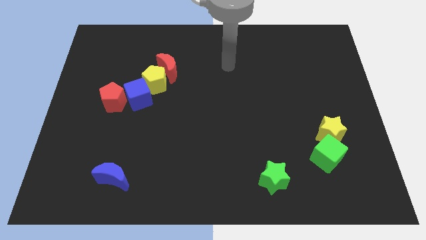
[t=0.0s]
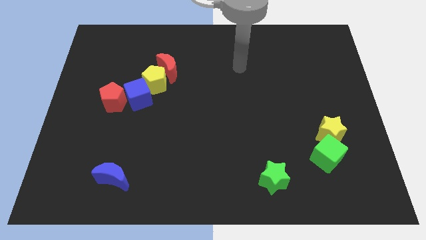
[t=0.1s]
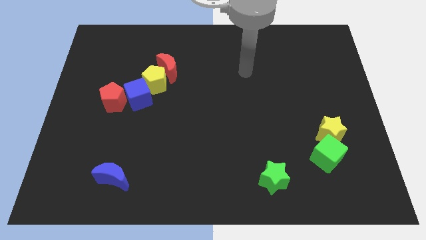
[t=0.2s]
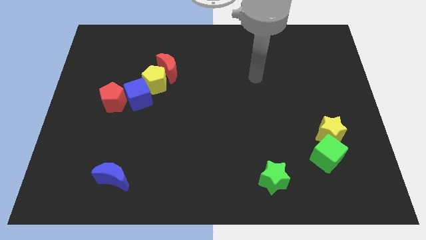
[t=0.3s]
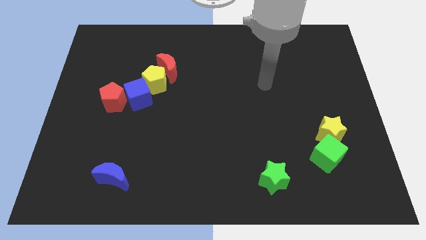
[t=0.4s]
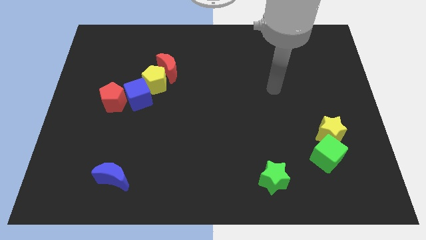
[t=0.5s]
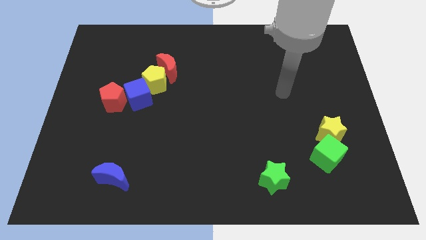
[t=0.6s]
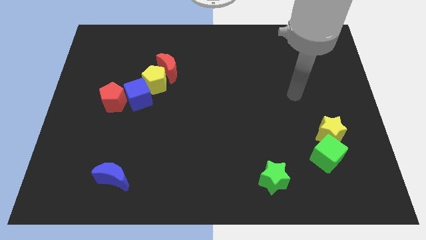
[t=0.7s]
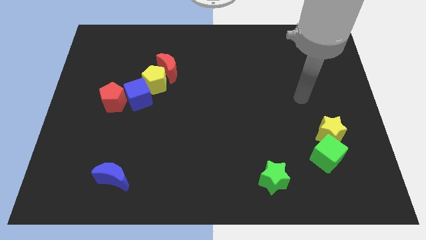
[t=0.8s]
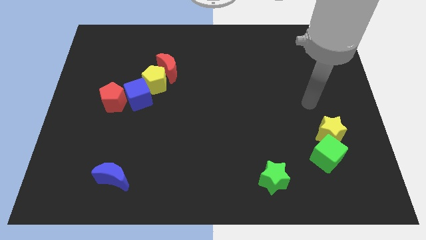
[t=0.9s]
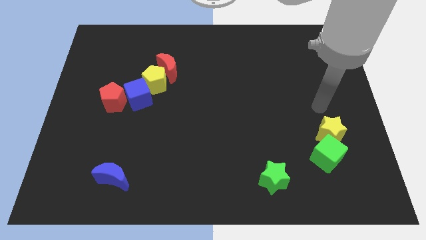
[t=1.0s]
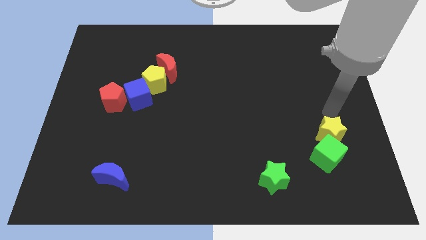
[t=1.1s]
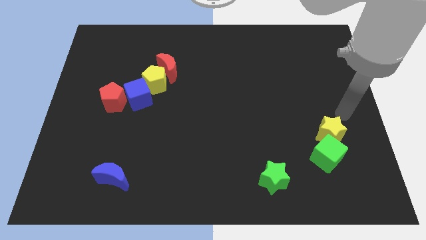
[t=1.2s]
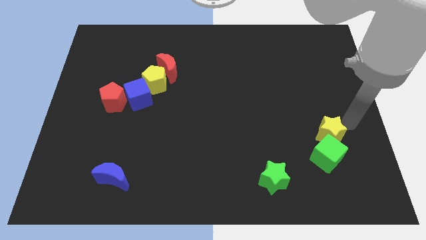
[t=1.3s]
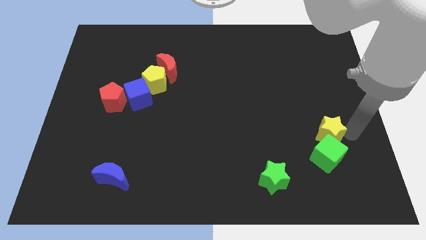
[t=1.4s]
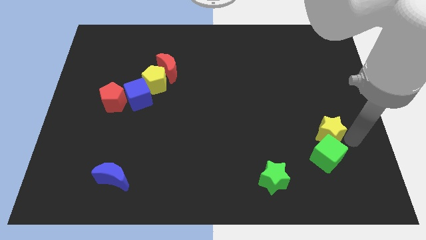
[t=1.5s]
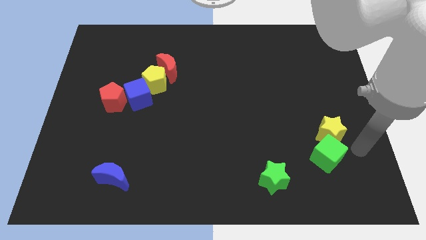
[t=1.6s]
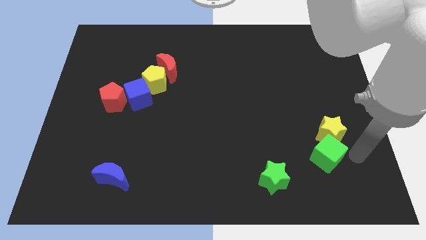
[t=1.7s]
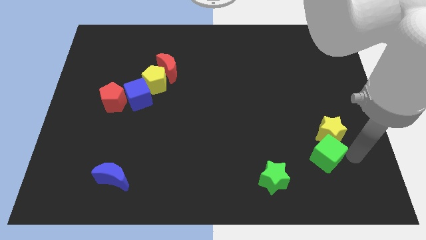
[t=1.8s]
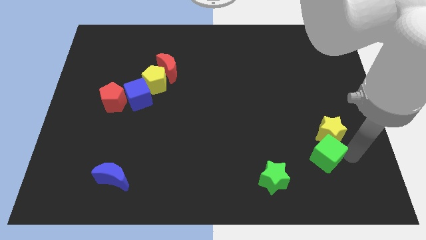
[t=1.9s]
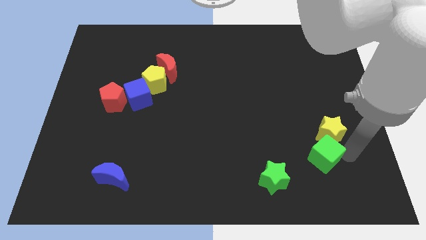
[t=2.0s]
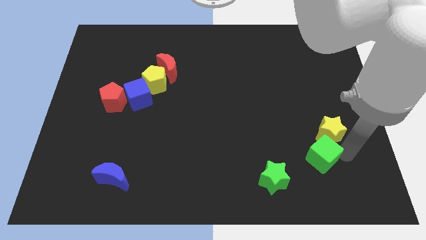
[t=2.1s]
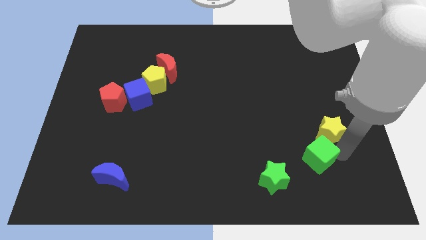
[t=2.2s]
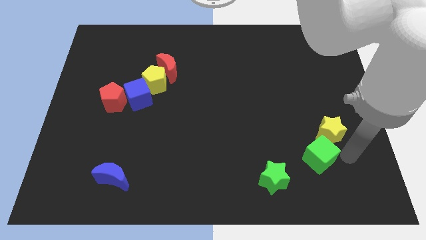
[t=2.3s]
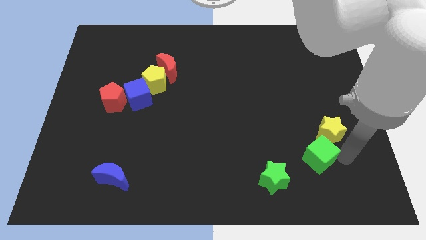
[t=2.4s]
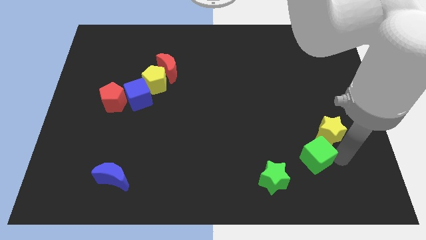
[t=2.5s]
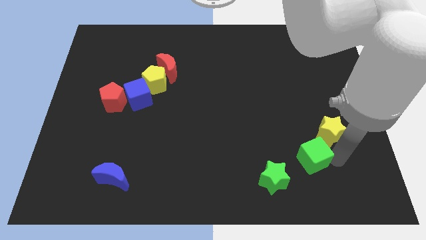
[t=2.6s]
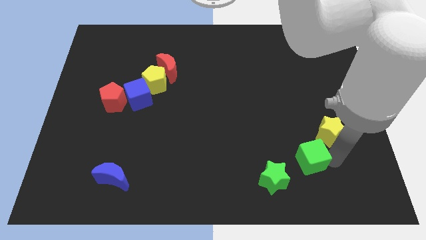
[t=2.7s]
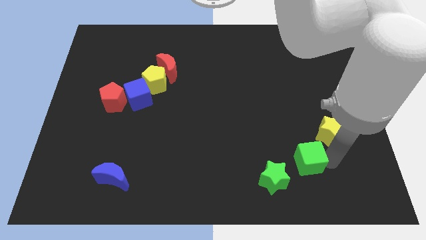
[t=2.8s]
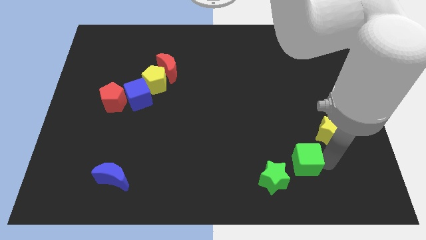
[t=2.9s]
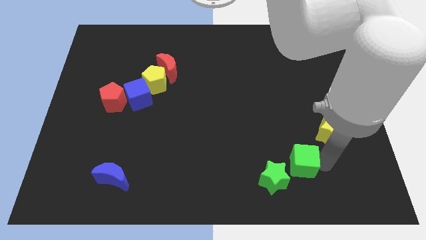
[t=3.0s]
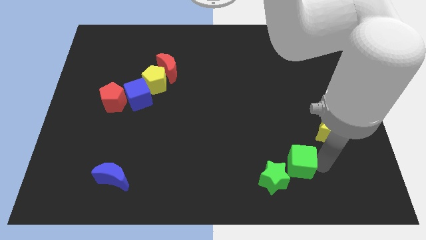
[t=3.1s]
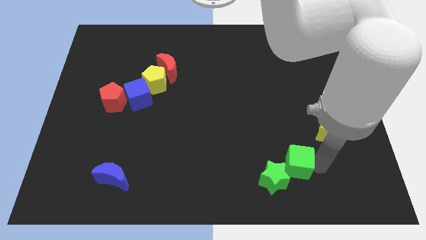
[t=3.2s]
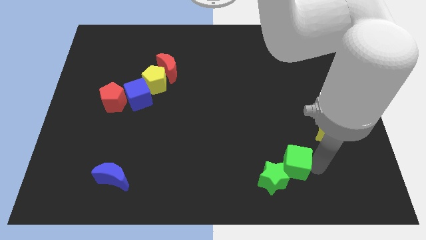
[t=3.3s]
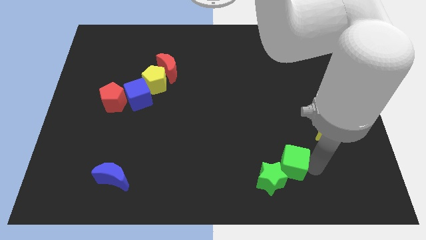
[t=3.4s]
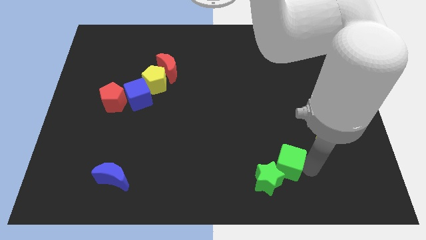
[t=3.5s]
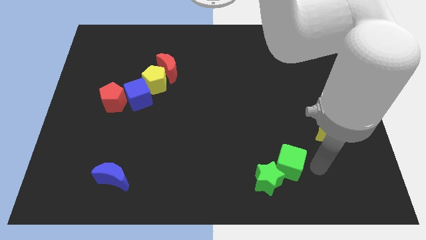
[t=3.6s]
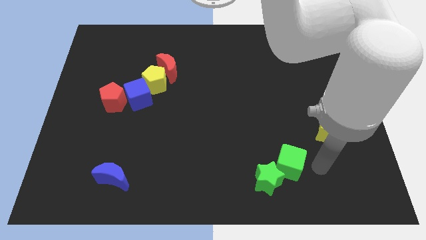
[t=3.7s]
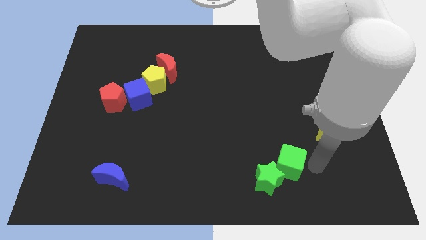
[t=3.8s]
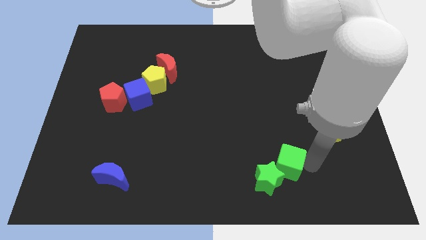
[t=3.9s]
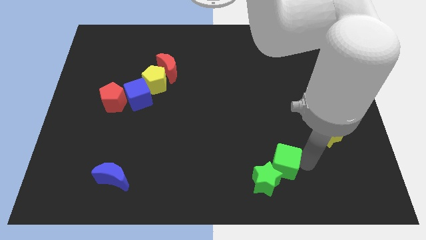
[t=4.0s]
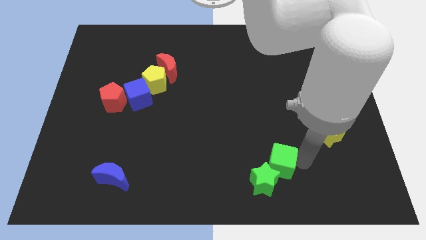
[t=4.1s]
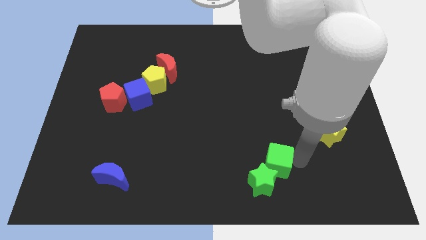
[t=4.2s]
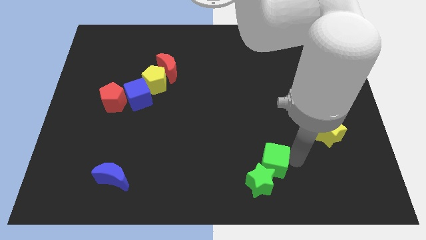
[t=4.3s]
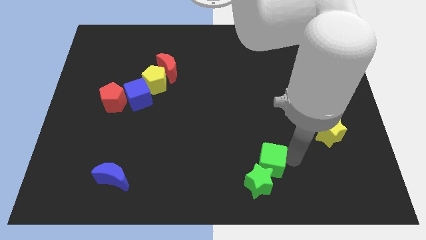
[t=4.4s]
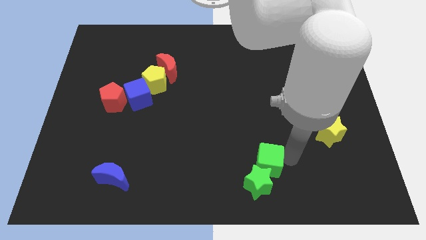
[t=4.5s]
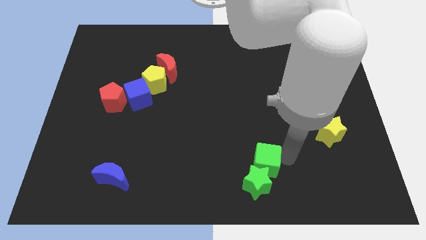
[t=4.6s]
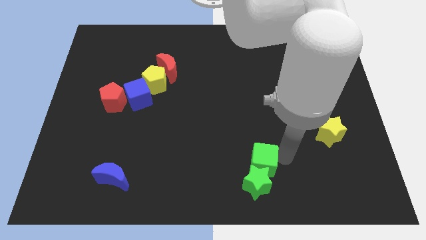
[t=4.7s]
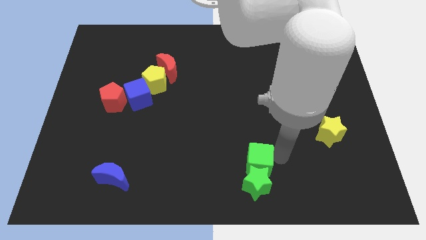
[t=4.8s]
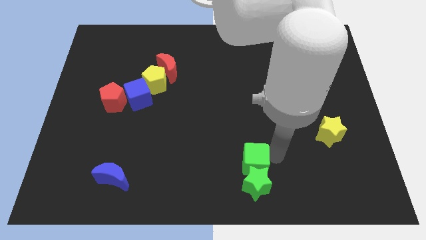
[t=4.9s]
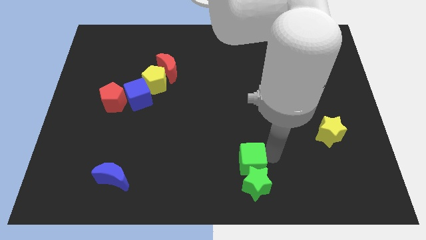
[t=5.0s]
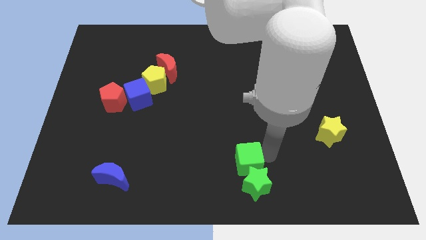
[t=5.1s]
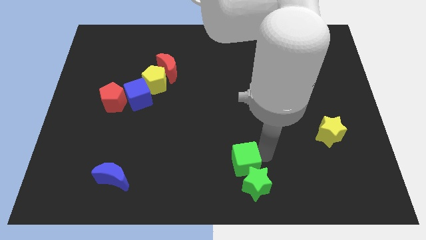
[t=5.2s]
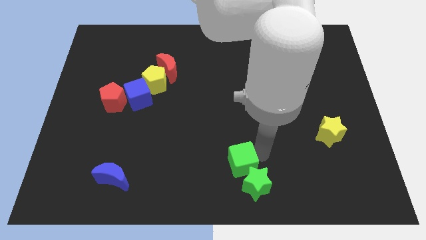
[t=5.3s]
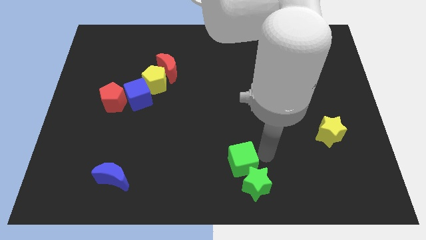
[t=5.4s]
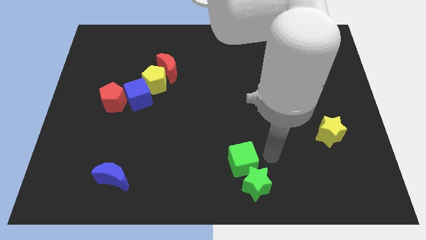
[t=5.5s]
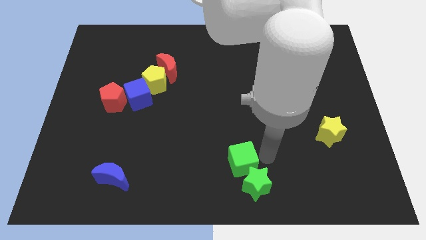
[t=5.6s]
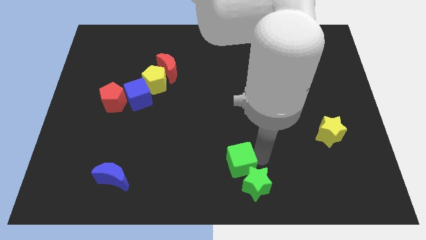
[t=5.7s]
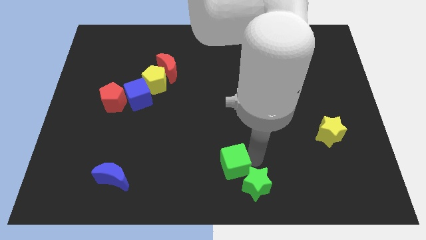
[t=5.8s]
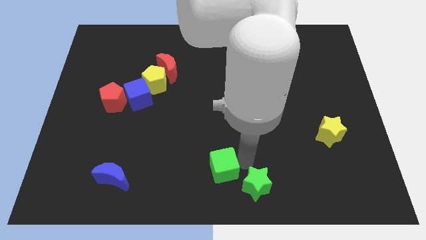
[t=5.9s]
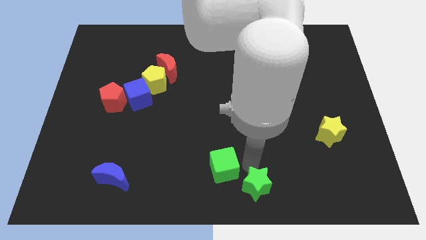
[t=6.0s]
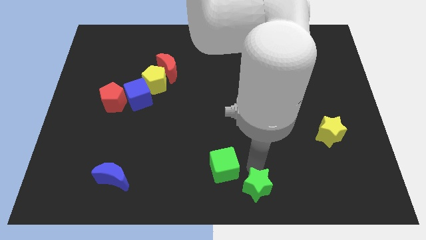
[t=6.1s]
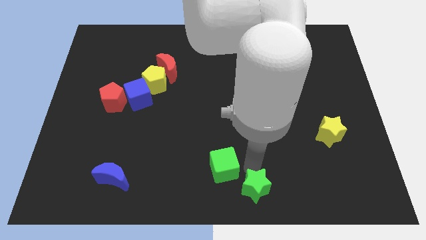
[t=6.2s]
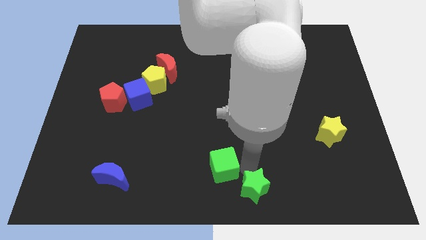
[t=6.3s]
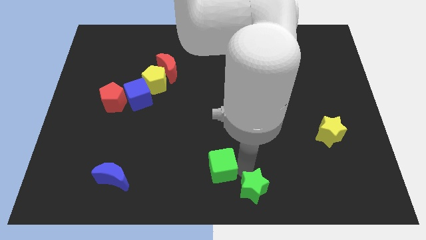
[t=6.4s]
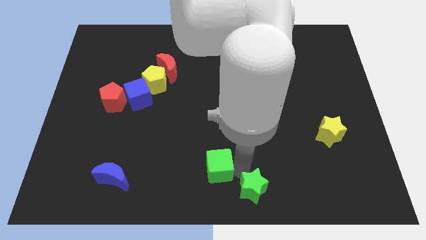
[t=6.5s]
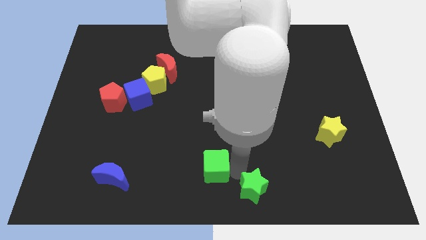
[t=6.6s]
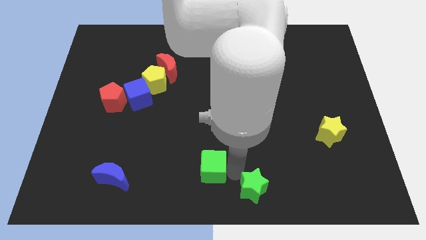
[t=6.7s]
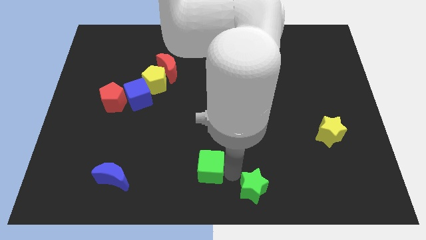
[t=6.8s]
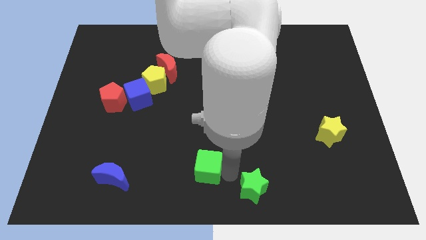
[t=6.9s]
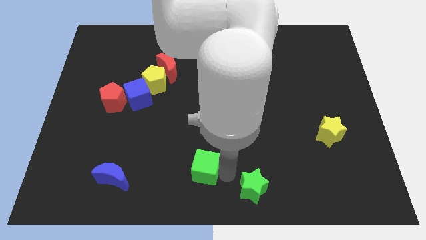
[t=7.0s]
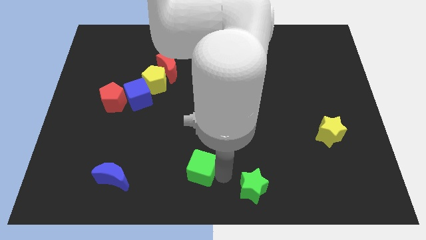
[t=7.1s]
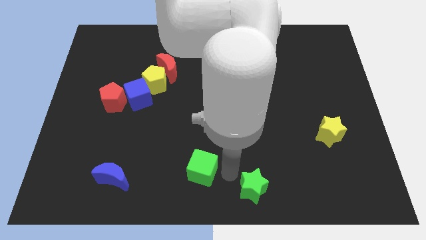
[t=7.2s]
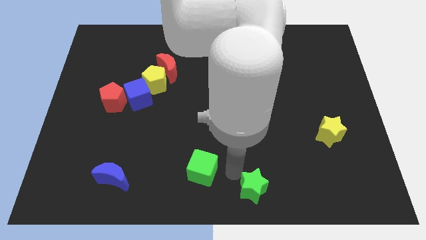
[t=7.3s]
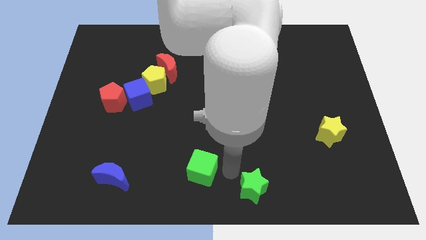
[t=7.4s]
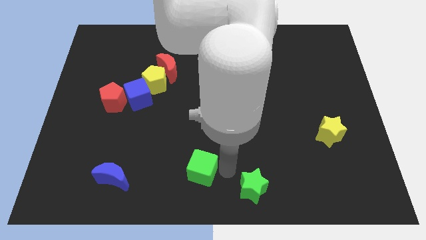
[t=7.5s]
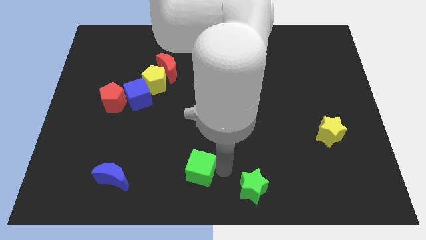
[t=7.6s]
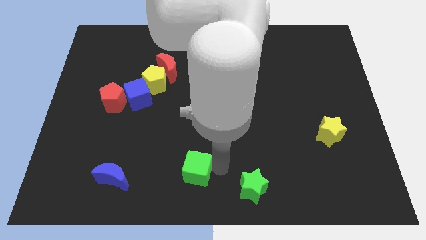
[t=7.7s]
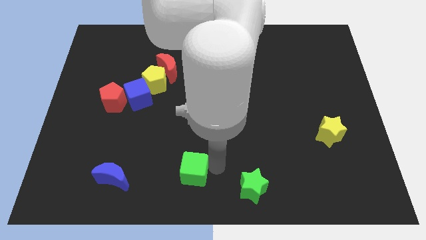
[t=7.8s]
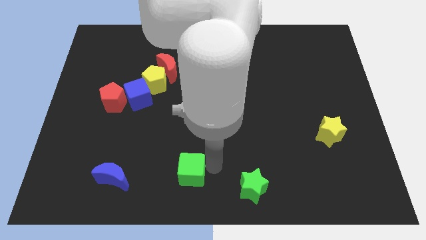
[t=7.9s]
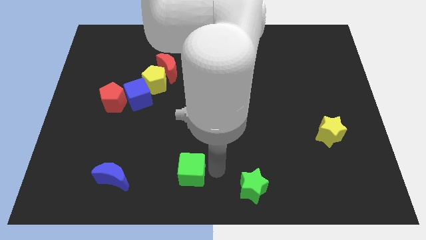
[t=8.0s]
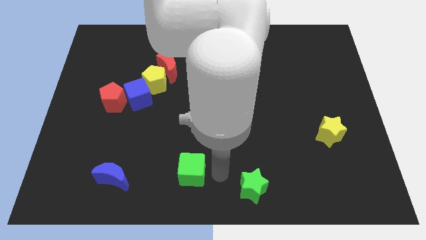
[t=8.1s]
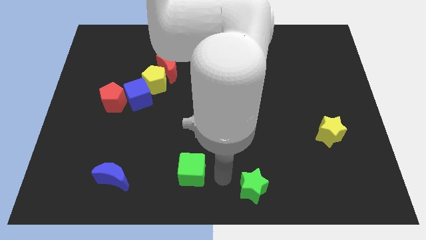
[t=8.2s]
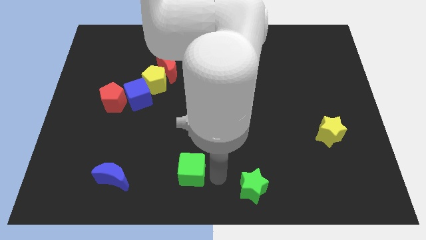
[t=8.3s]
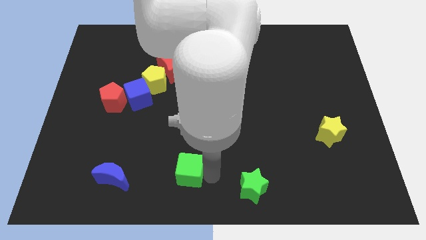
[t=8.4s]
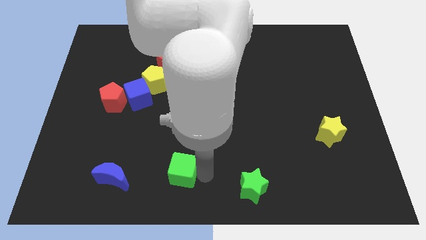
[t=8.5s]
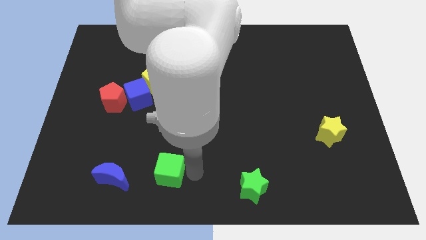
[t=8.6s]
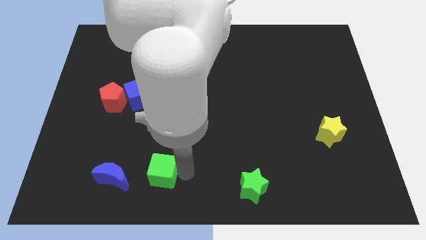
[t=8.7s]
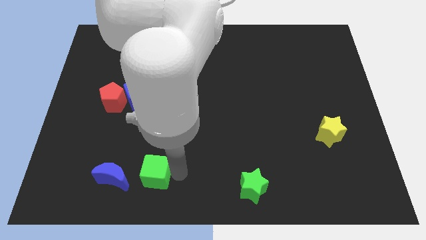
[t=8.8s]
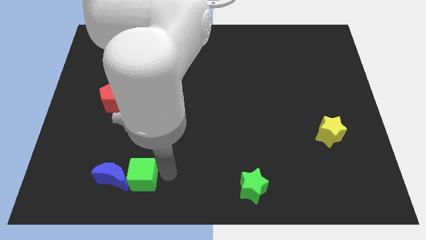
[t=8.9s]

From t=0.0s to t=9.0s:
move the green cube towards the blue moon
